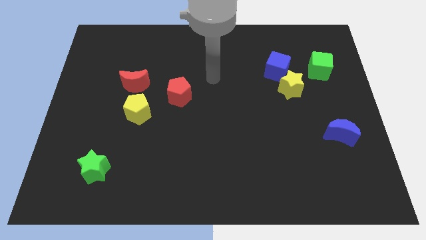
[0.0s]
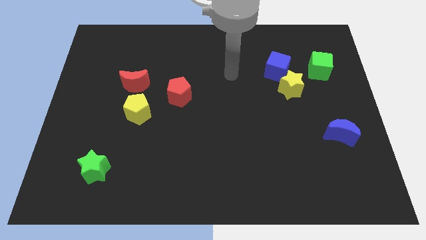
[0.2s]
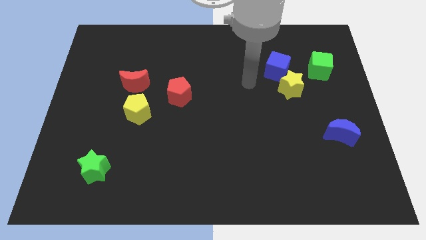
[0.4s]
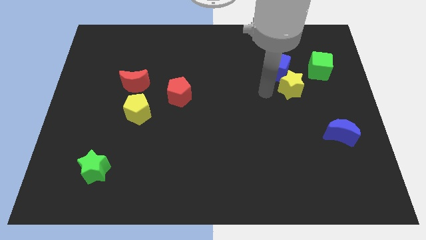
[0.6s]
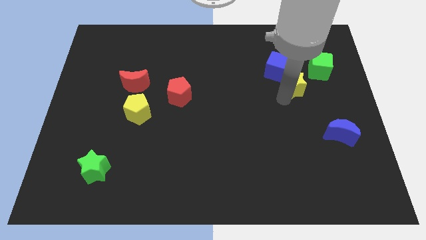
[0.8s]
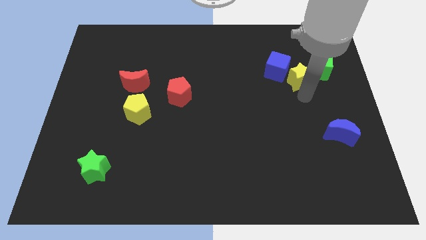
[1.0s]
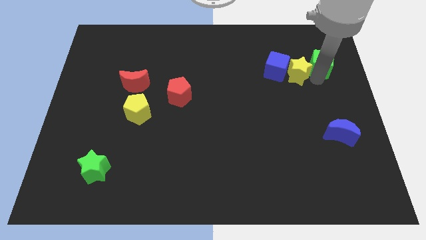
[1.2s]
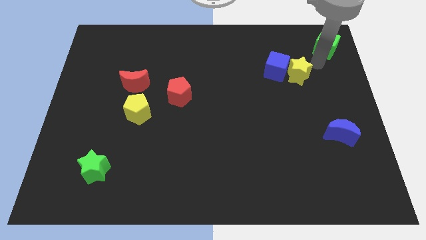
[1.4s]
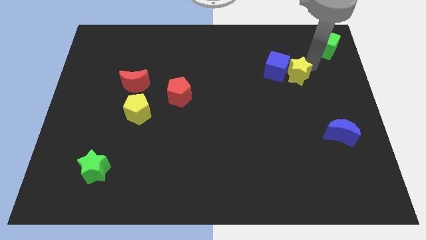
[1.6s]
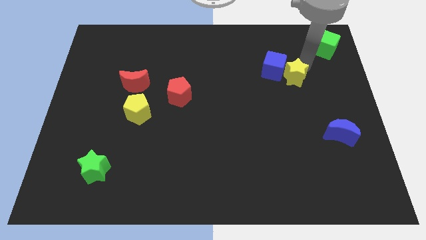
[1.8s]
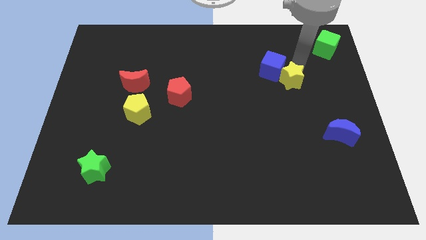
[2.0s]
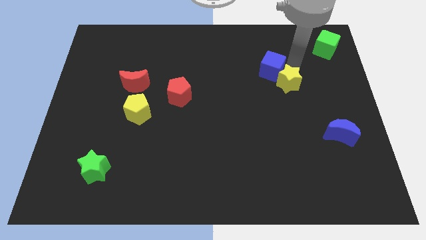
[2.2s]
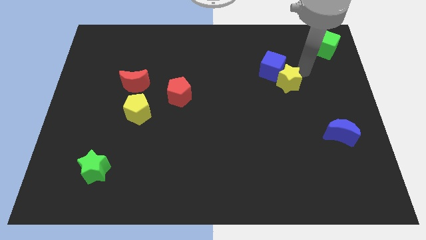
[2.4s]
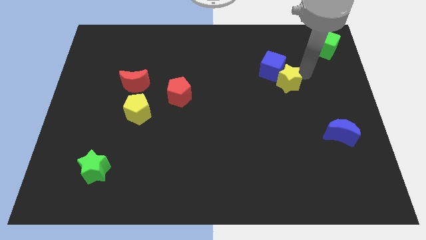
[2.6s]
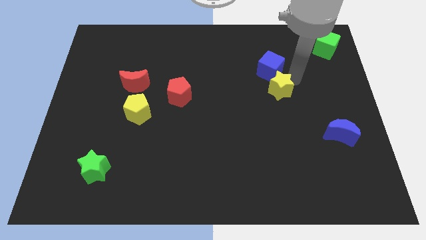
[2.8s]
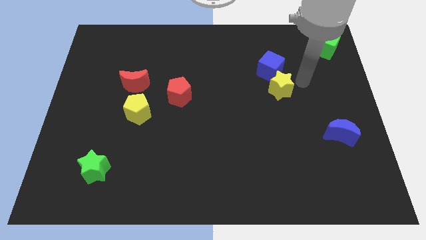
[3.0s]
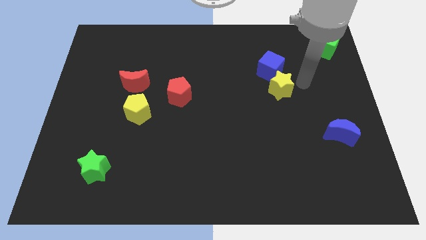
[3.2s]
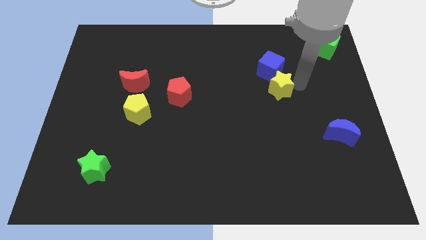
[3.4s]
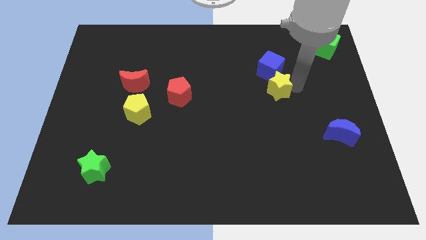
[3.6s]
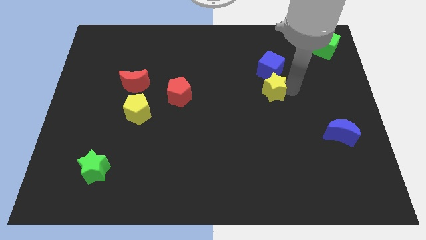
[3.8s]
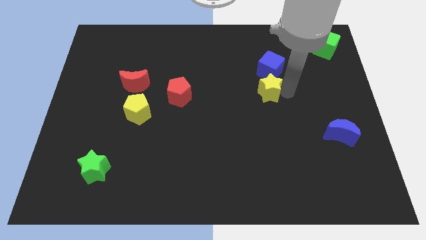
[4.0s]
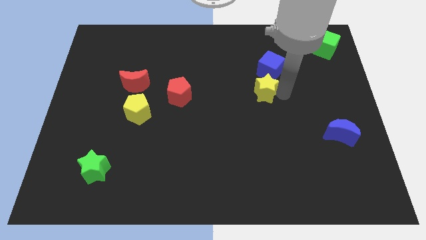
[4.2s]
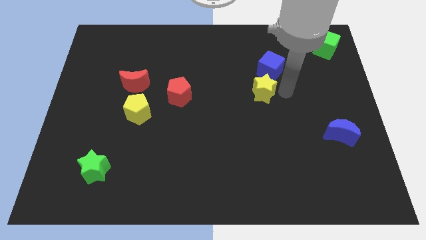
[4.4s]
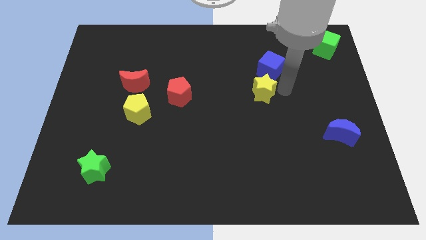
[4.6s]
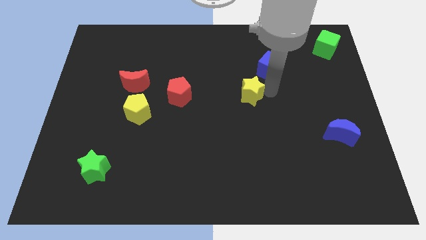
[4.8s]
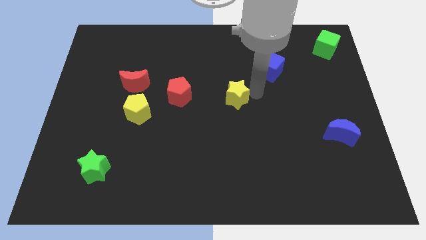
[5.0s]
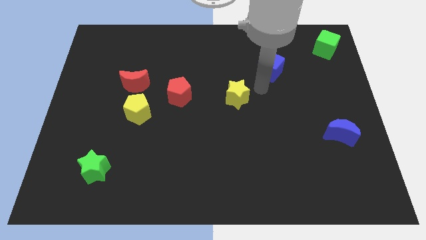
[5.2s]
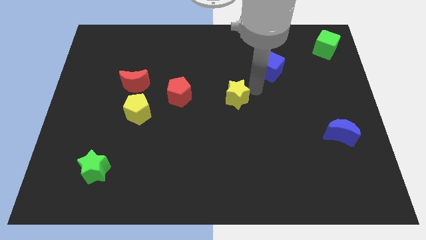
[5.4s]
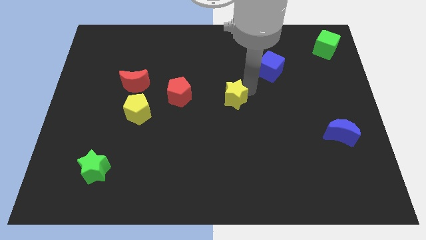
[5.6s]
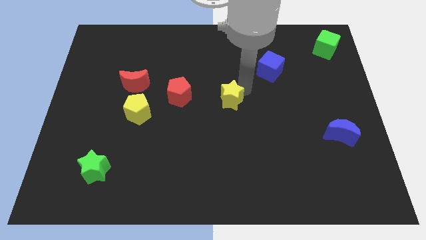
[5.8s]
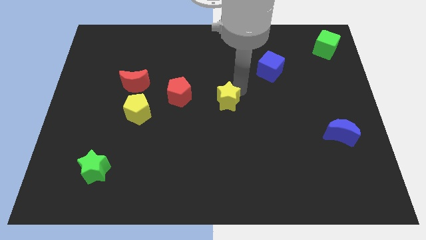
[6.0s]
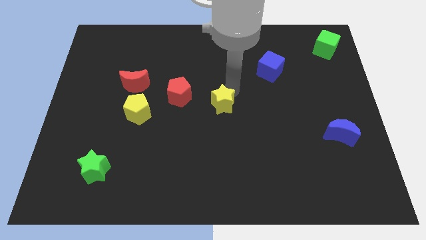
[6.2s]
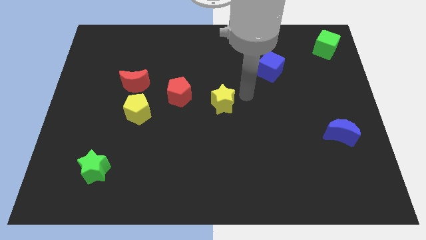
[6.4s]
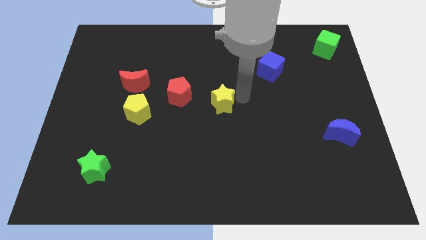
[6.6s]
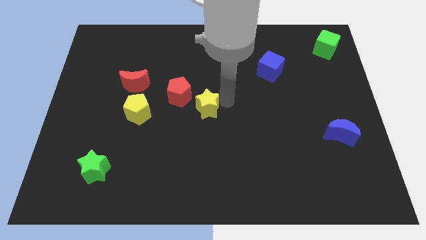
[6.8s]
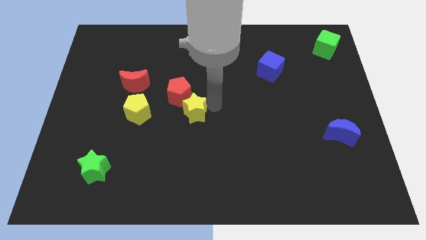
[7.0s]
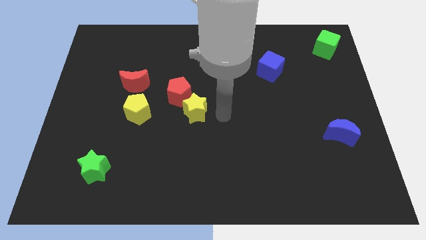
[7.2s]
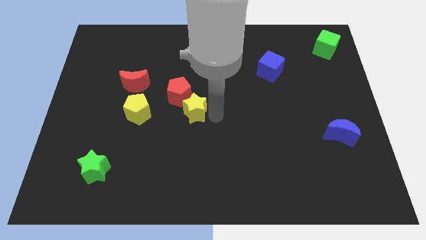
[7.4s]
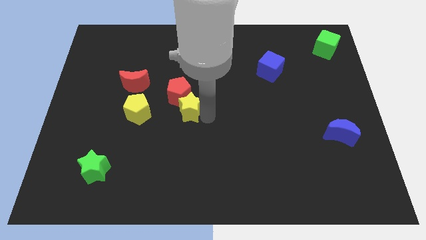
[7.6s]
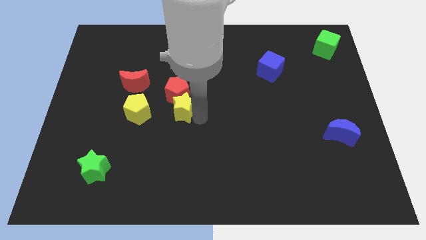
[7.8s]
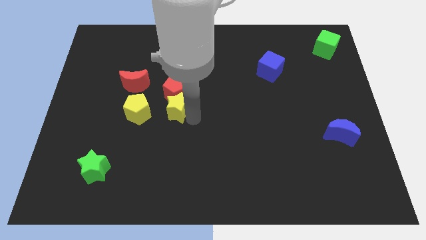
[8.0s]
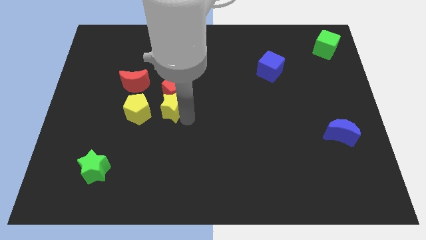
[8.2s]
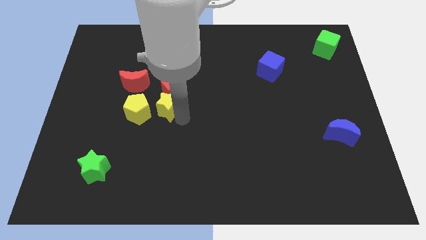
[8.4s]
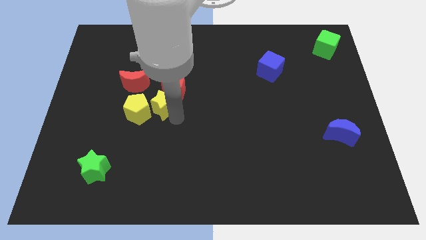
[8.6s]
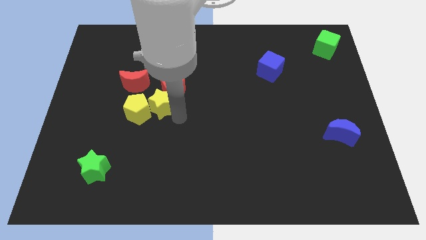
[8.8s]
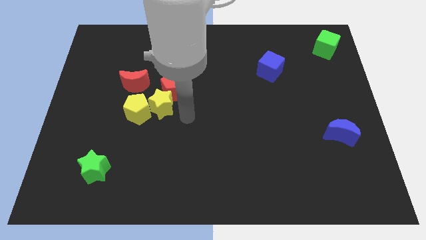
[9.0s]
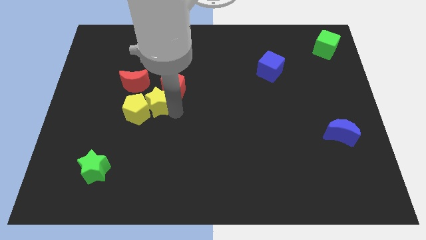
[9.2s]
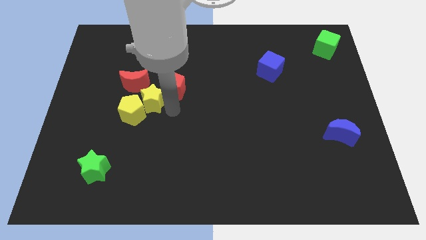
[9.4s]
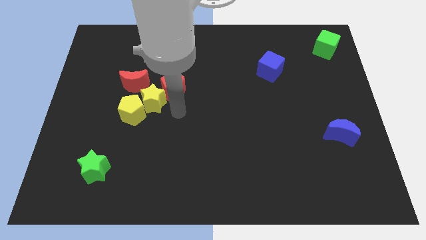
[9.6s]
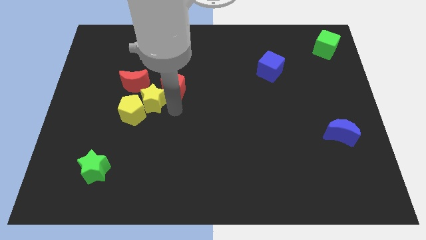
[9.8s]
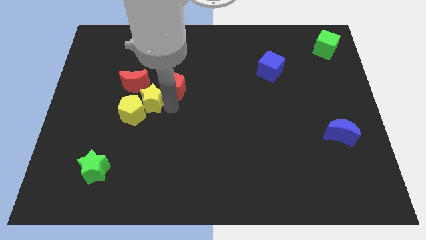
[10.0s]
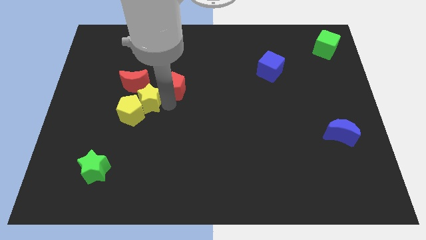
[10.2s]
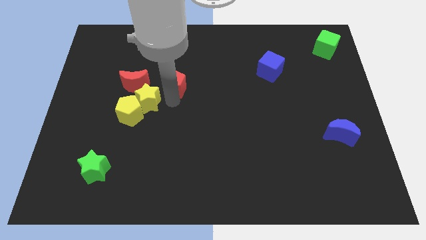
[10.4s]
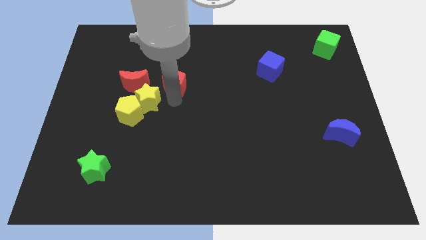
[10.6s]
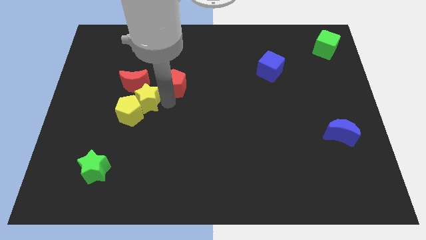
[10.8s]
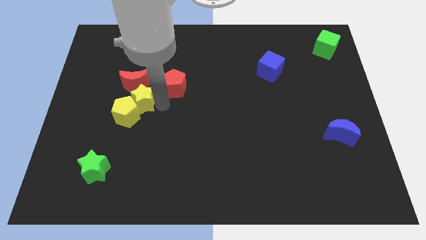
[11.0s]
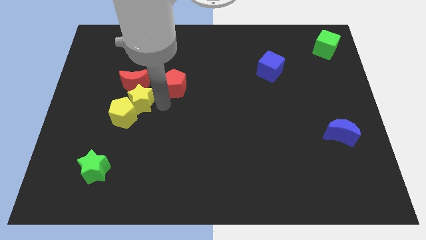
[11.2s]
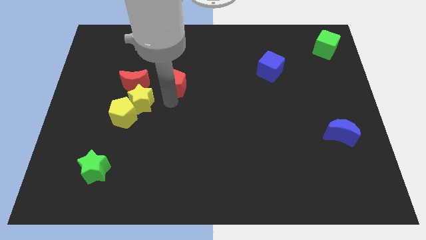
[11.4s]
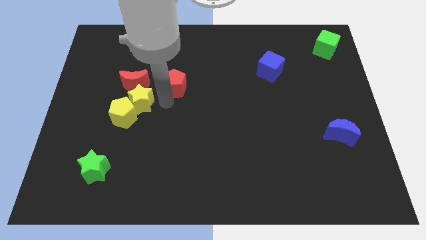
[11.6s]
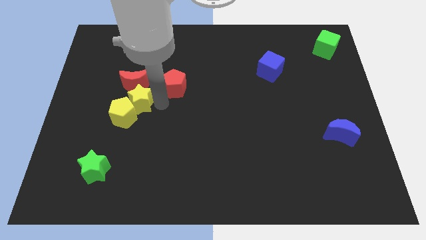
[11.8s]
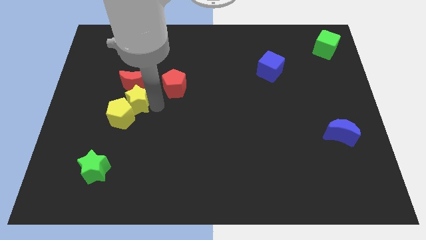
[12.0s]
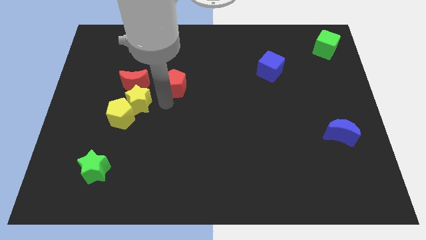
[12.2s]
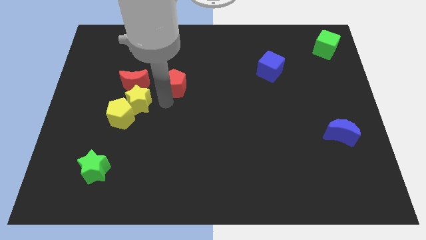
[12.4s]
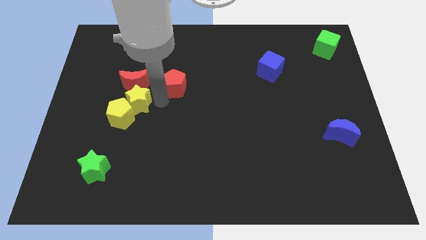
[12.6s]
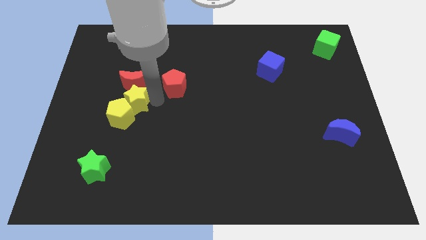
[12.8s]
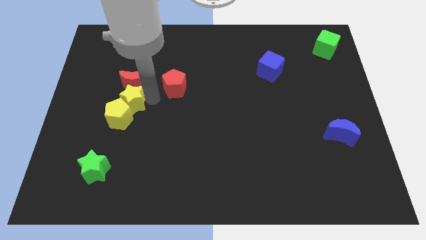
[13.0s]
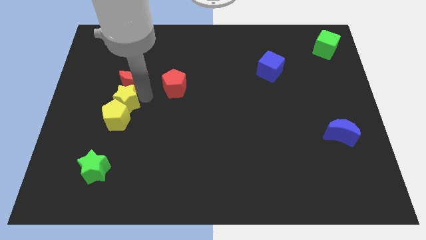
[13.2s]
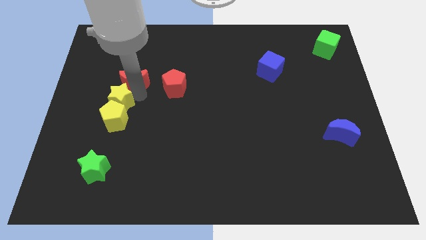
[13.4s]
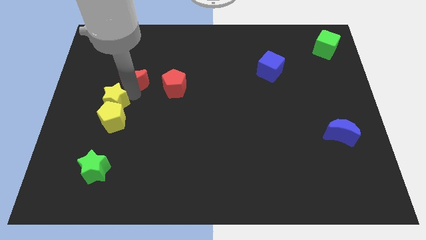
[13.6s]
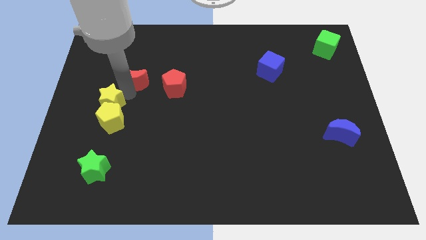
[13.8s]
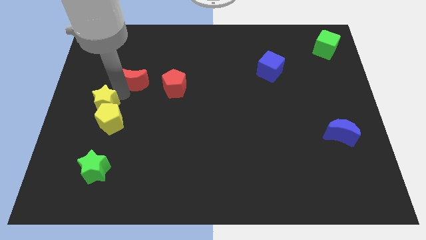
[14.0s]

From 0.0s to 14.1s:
push the yellow star to the left side

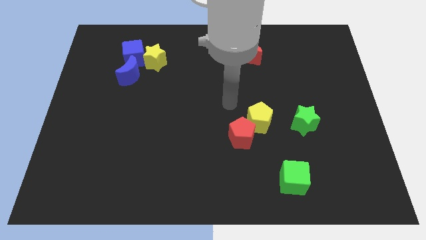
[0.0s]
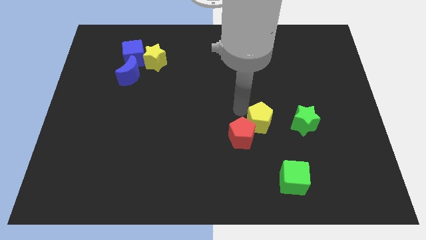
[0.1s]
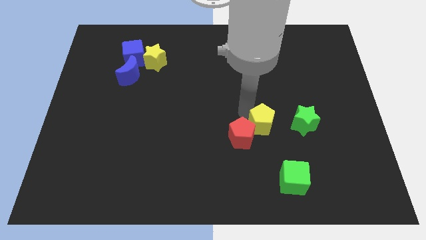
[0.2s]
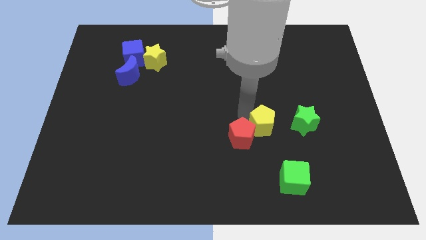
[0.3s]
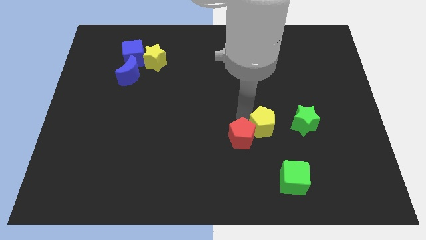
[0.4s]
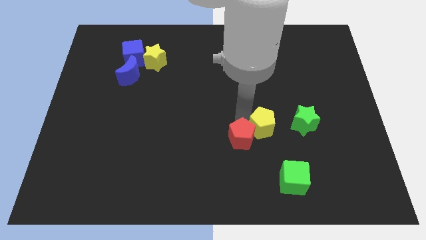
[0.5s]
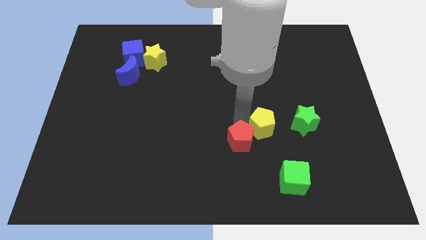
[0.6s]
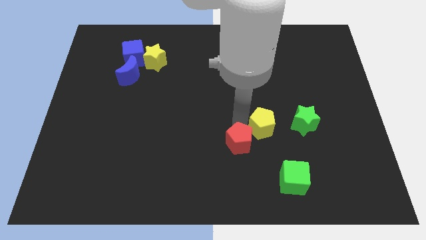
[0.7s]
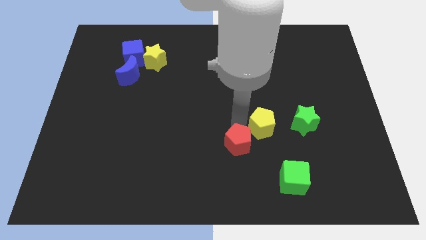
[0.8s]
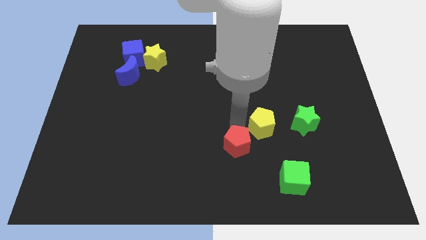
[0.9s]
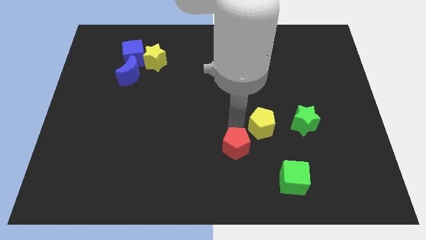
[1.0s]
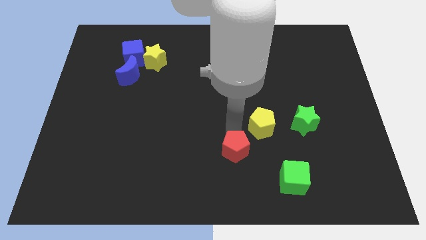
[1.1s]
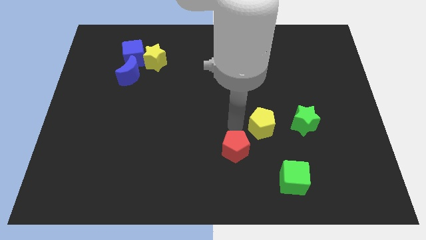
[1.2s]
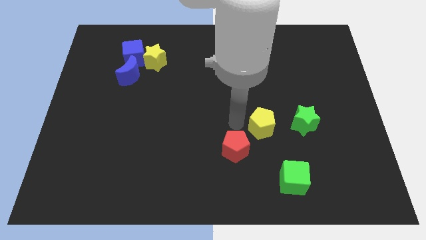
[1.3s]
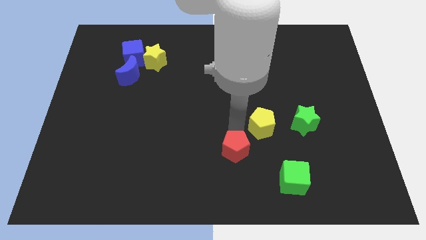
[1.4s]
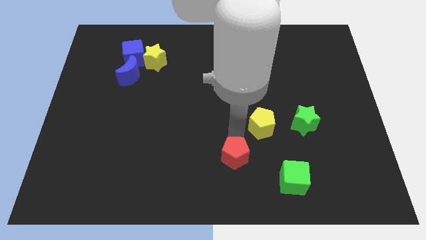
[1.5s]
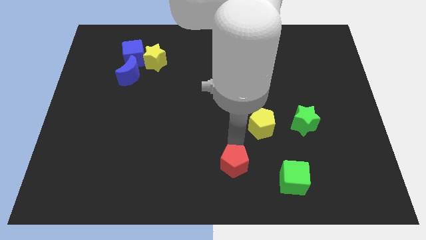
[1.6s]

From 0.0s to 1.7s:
move the red pentagon to the bottom
